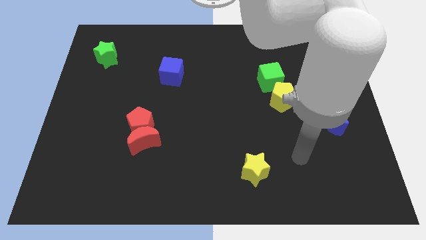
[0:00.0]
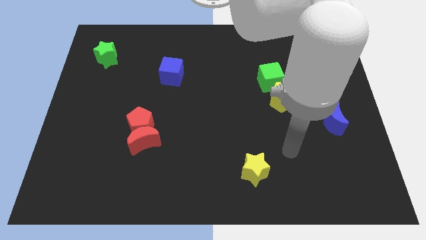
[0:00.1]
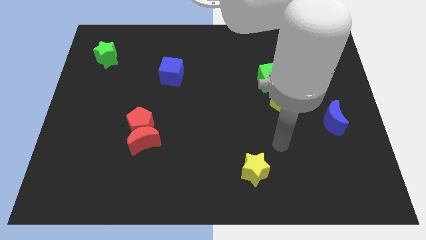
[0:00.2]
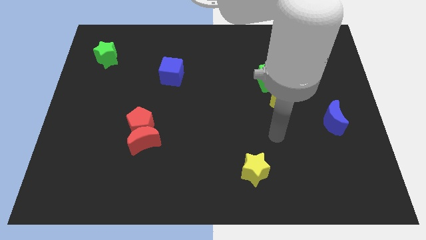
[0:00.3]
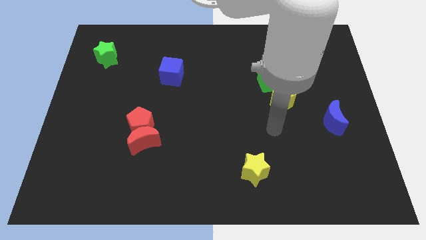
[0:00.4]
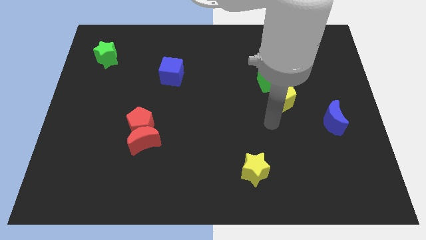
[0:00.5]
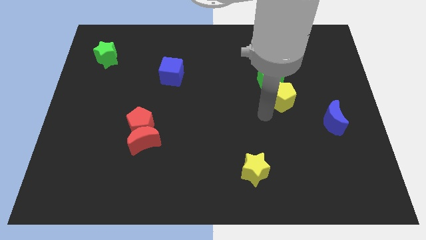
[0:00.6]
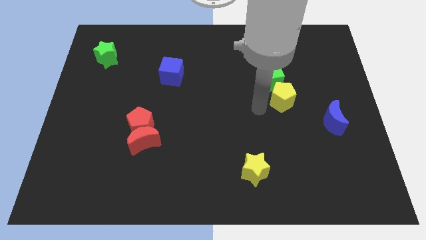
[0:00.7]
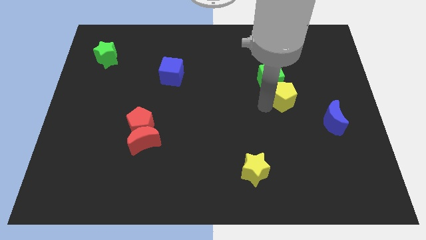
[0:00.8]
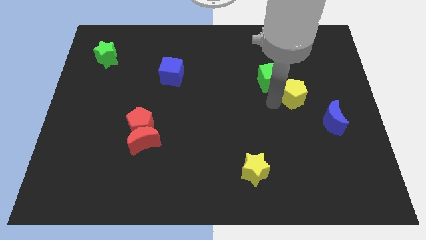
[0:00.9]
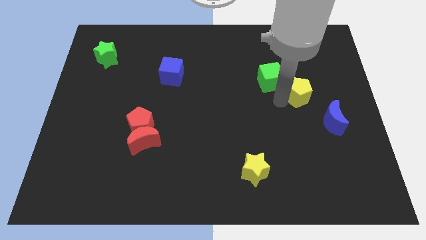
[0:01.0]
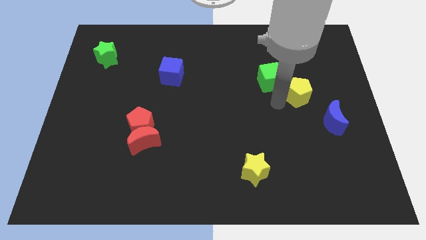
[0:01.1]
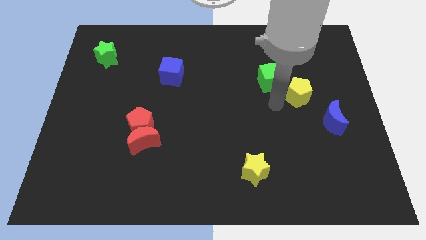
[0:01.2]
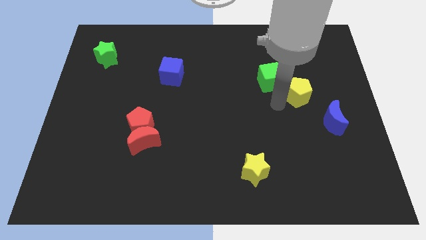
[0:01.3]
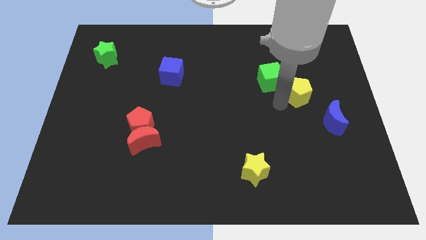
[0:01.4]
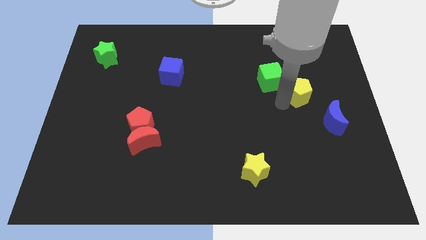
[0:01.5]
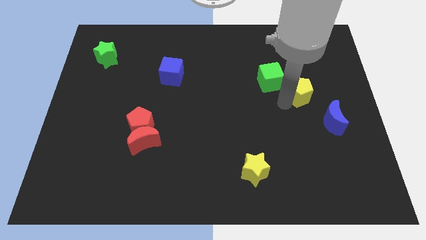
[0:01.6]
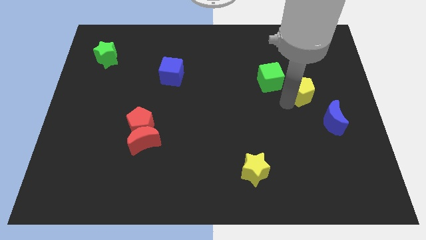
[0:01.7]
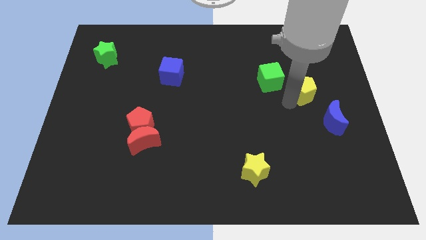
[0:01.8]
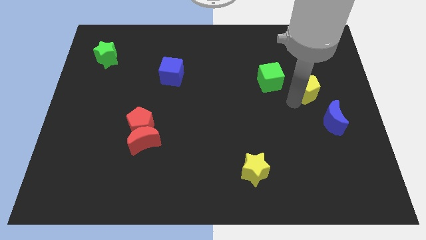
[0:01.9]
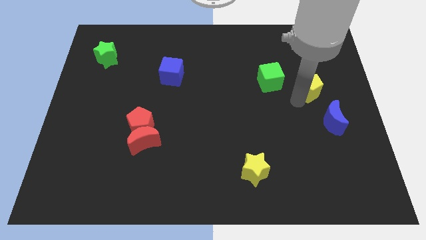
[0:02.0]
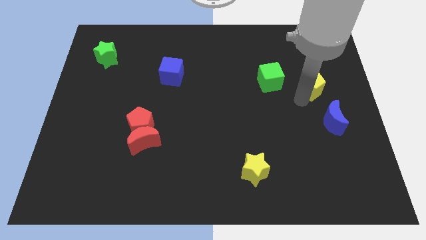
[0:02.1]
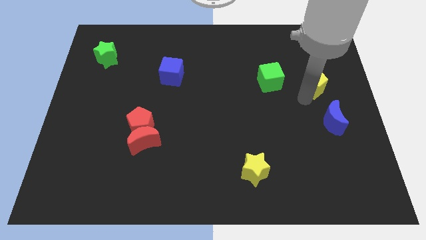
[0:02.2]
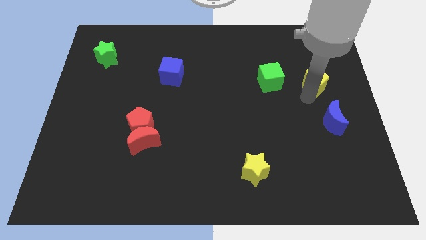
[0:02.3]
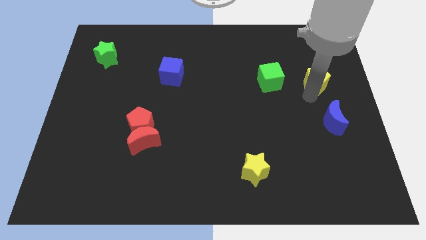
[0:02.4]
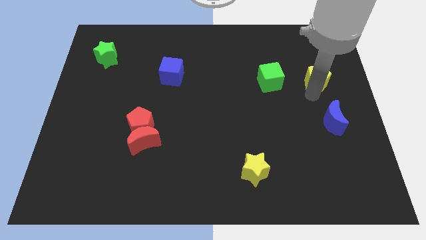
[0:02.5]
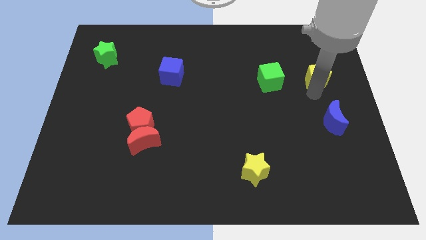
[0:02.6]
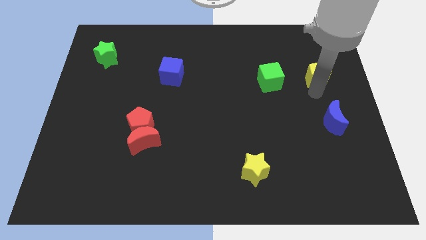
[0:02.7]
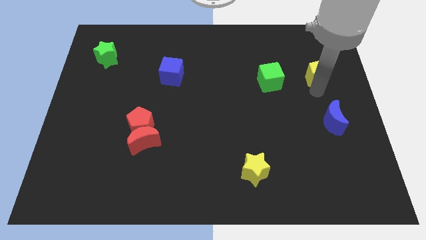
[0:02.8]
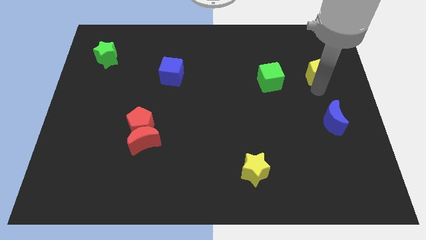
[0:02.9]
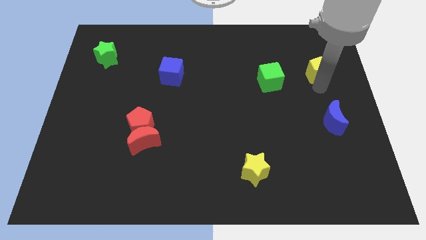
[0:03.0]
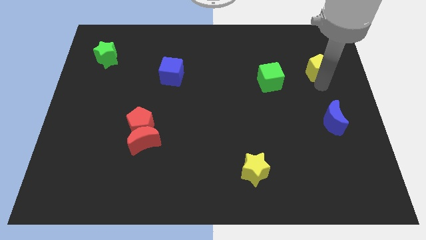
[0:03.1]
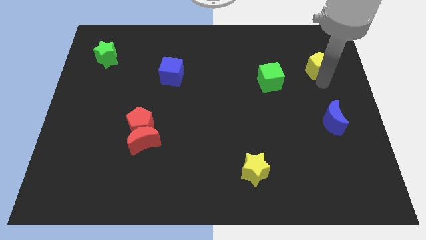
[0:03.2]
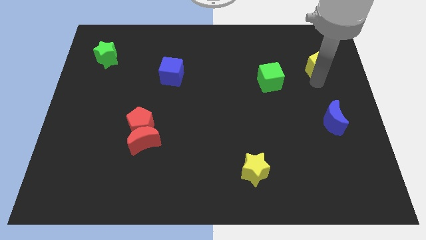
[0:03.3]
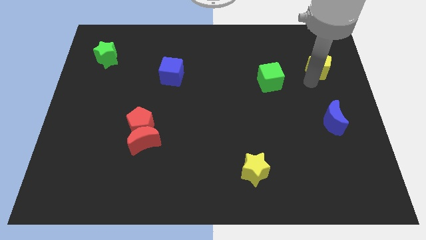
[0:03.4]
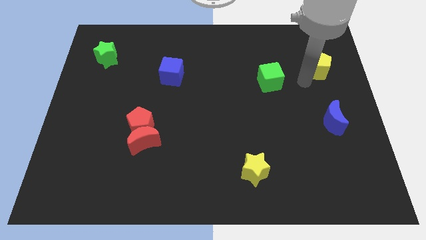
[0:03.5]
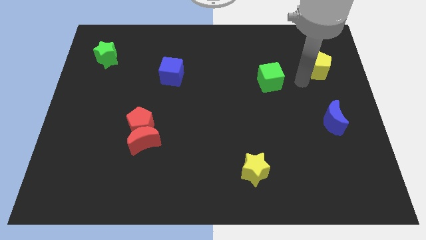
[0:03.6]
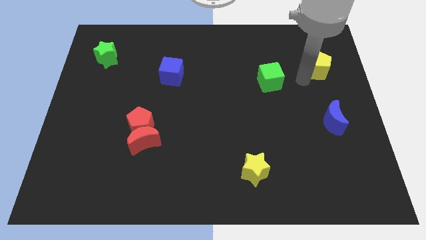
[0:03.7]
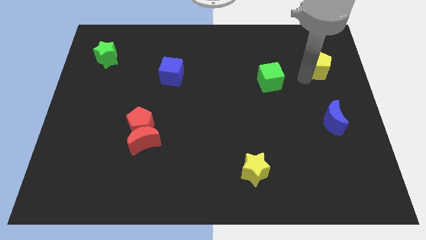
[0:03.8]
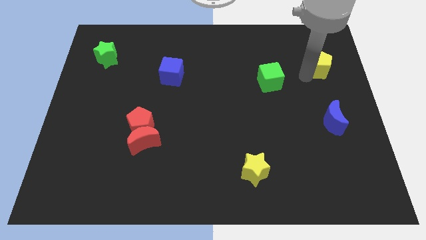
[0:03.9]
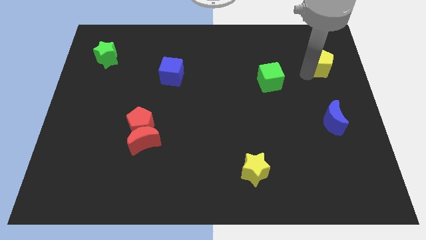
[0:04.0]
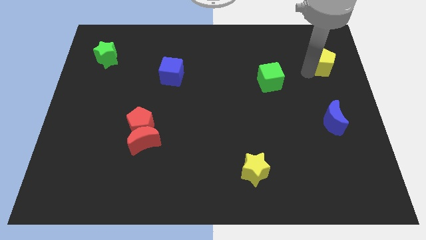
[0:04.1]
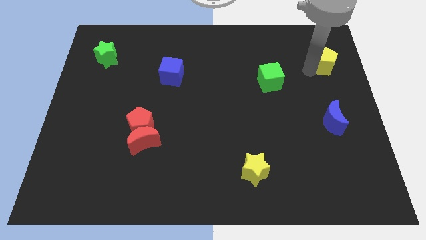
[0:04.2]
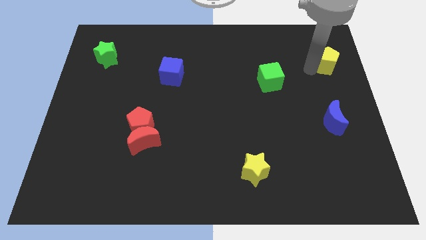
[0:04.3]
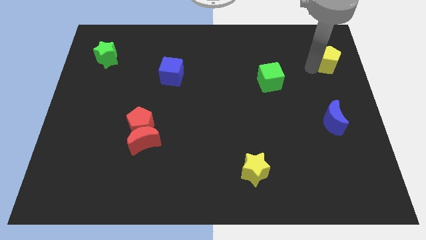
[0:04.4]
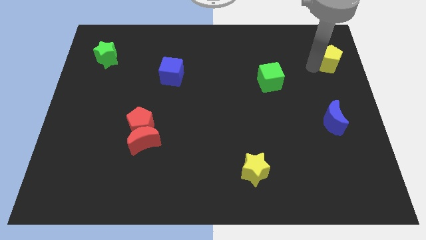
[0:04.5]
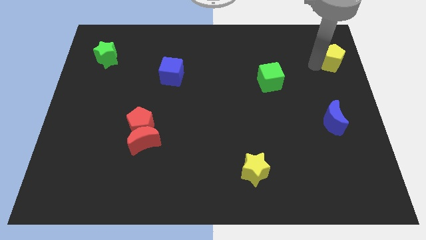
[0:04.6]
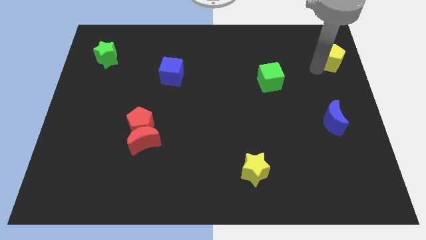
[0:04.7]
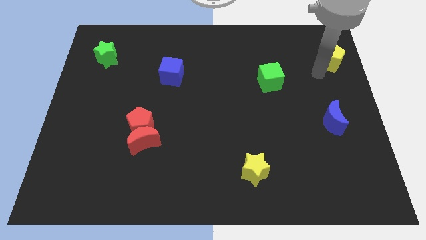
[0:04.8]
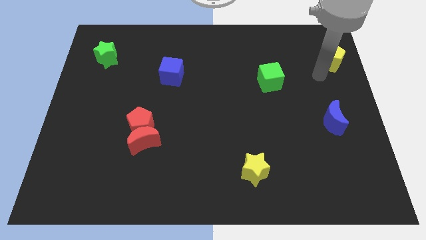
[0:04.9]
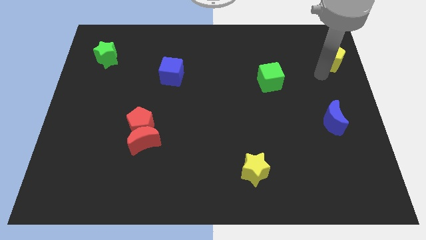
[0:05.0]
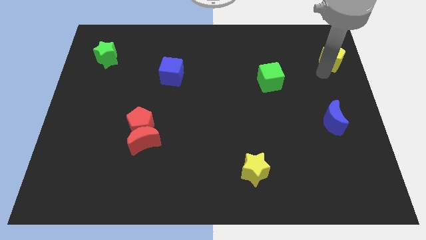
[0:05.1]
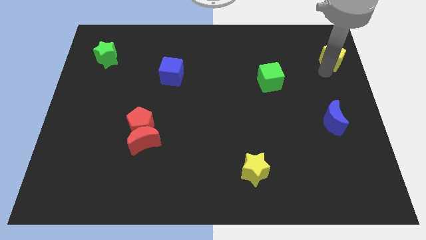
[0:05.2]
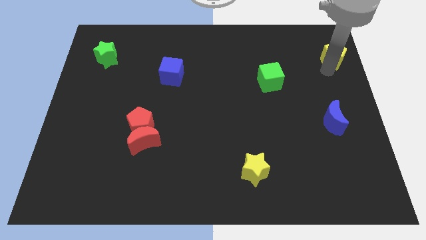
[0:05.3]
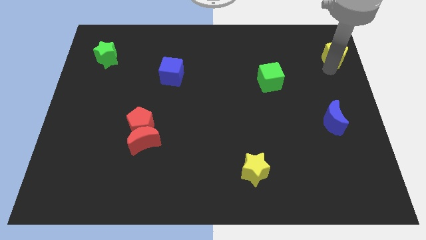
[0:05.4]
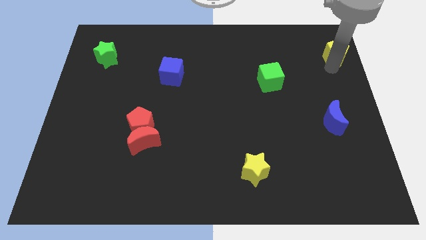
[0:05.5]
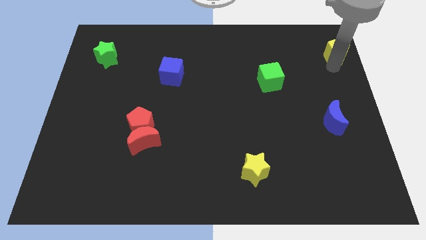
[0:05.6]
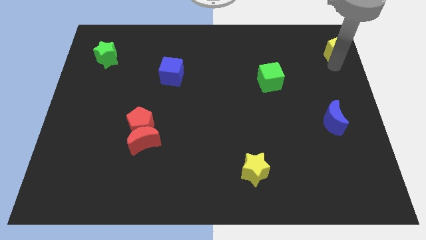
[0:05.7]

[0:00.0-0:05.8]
push the yellow pentagon to the upper right corner

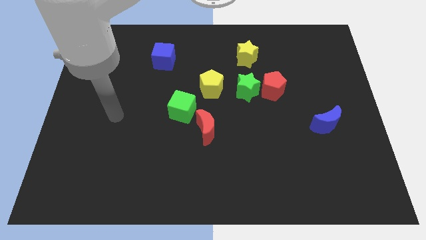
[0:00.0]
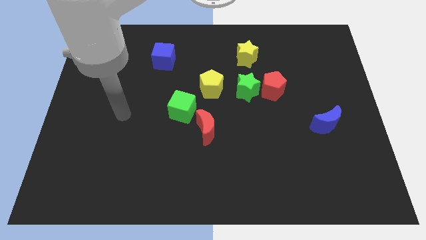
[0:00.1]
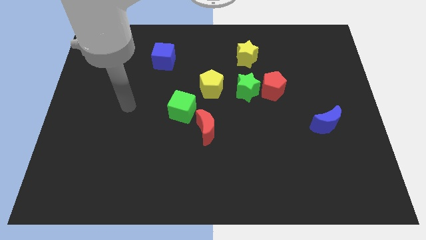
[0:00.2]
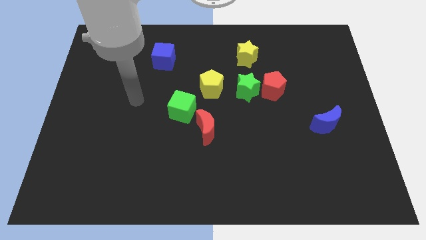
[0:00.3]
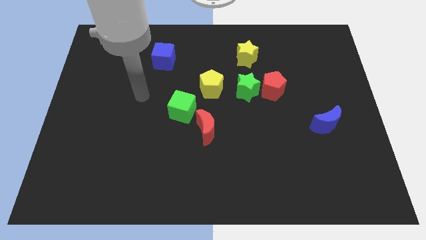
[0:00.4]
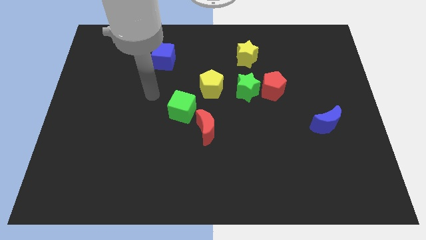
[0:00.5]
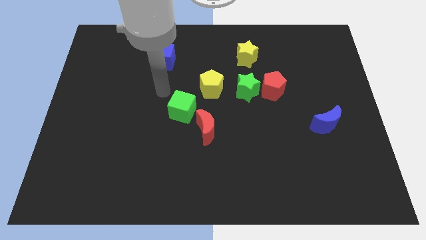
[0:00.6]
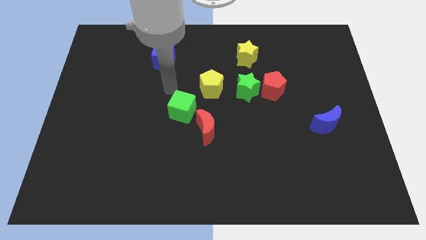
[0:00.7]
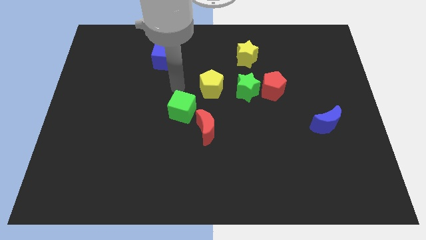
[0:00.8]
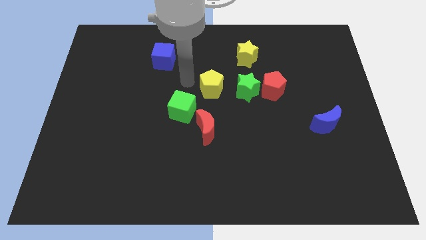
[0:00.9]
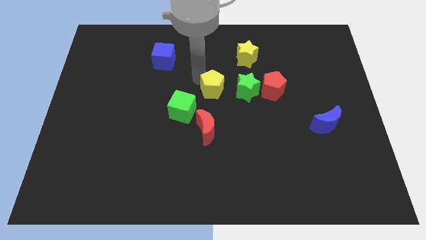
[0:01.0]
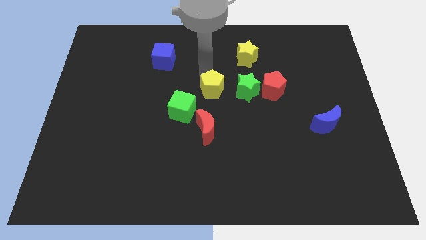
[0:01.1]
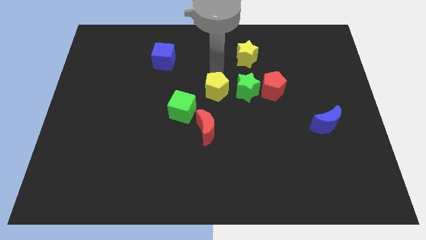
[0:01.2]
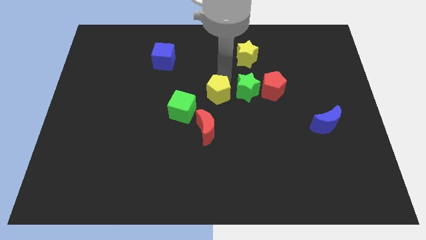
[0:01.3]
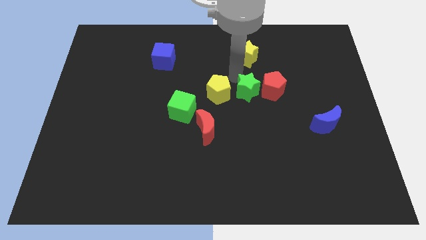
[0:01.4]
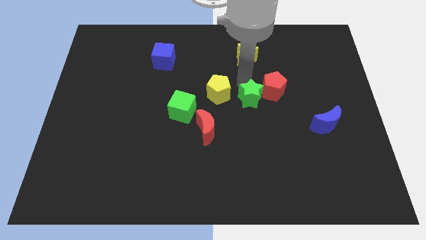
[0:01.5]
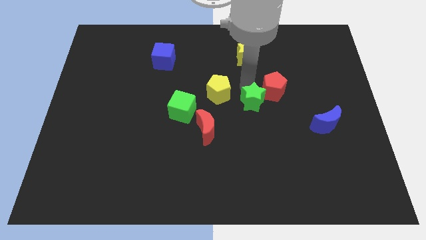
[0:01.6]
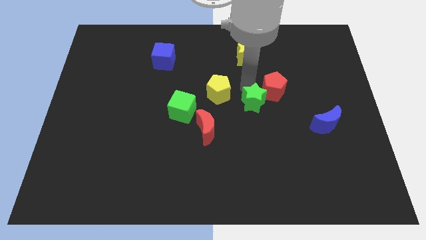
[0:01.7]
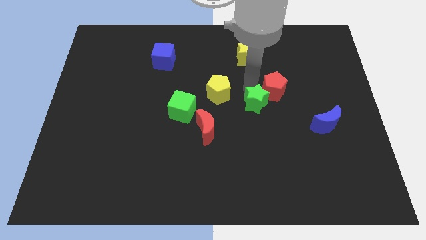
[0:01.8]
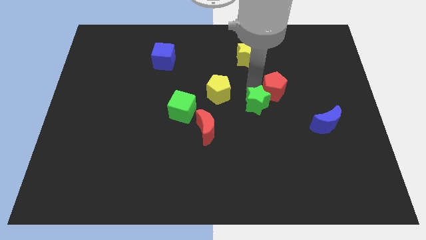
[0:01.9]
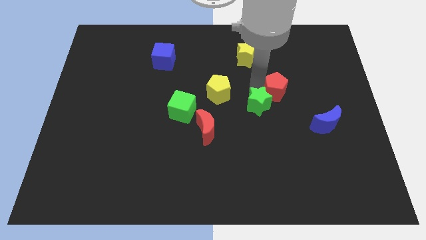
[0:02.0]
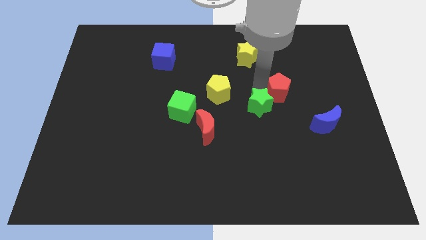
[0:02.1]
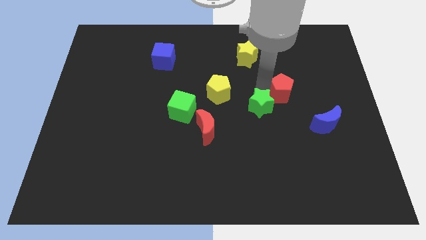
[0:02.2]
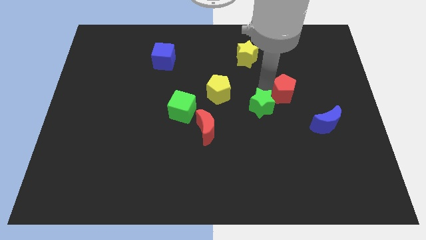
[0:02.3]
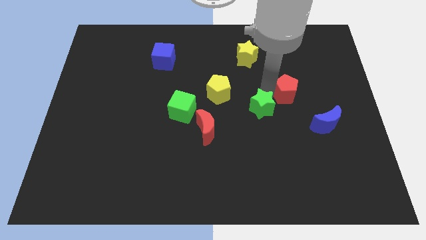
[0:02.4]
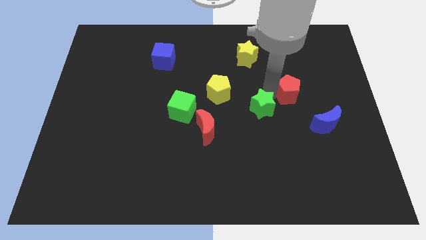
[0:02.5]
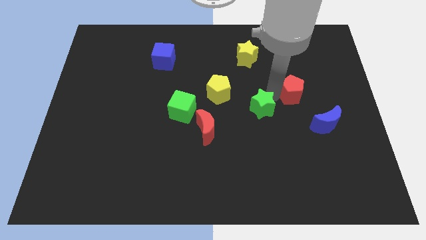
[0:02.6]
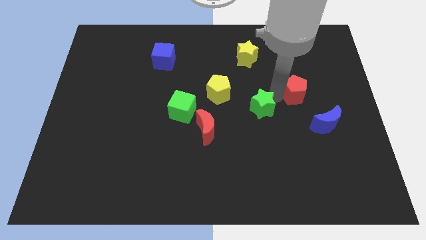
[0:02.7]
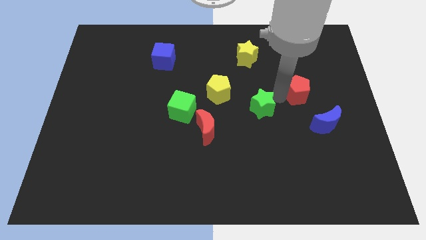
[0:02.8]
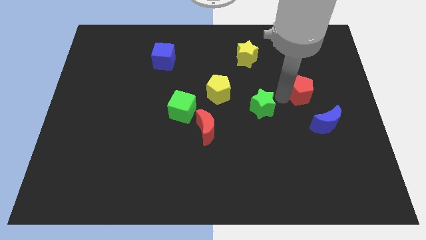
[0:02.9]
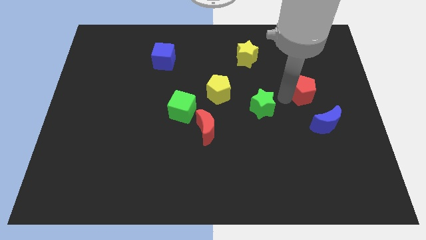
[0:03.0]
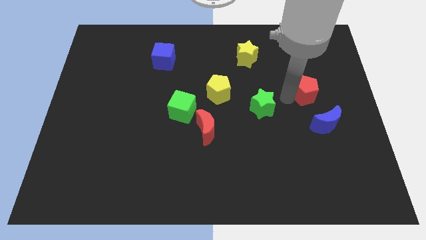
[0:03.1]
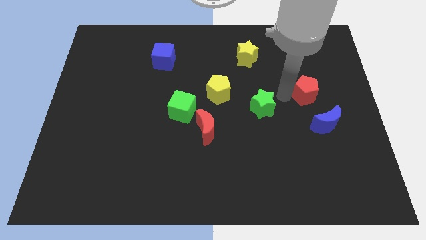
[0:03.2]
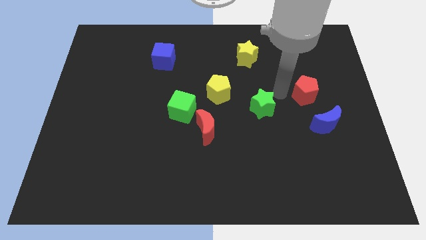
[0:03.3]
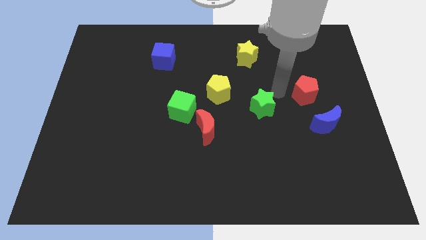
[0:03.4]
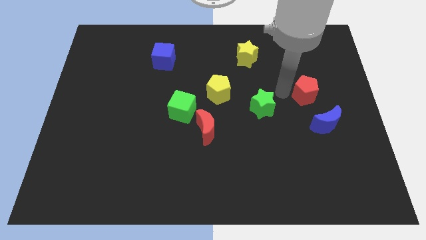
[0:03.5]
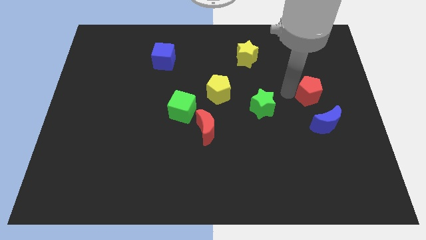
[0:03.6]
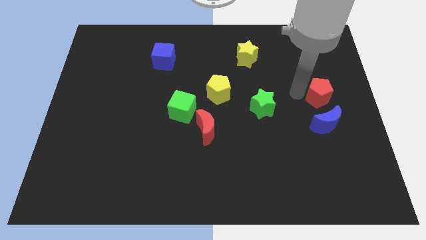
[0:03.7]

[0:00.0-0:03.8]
slide the red pentagon to the right side
